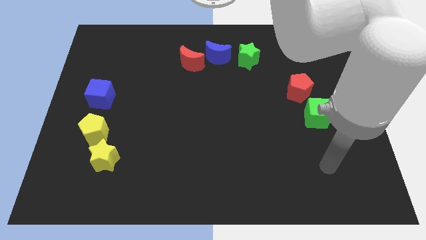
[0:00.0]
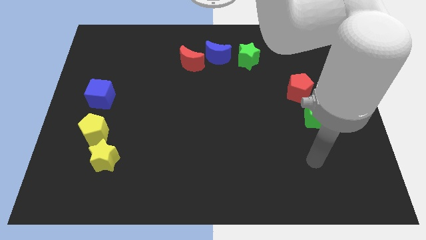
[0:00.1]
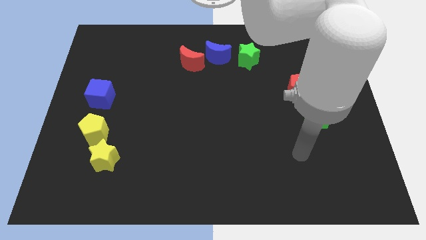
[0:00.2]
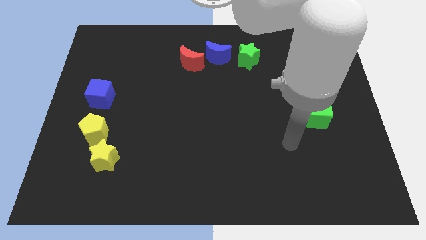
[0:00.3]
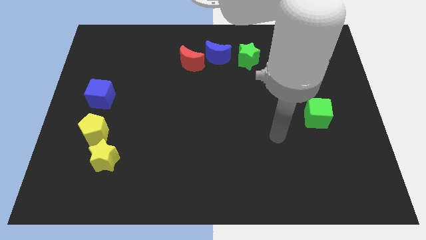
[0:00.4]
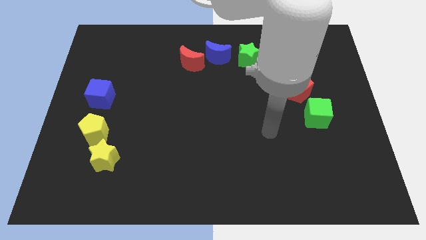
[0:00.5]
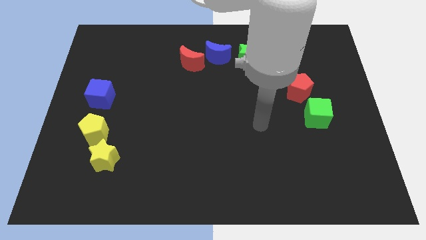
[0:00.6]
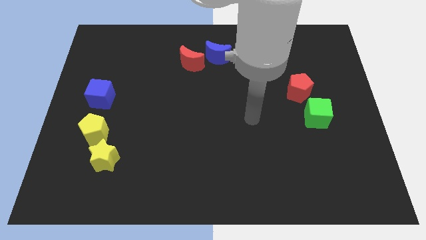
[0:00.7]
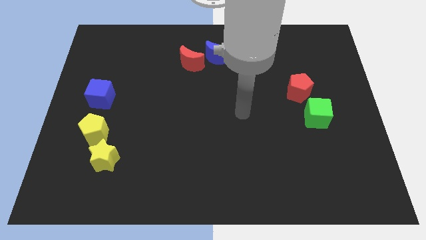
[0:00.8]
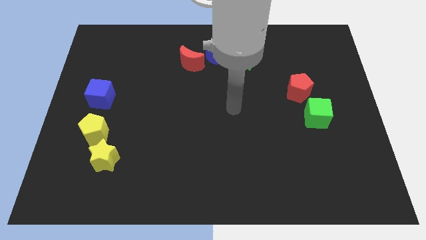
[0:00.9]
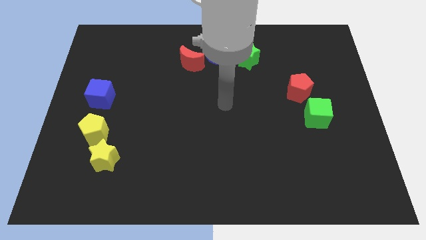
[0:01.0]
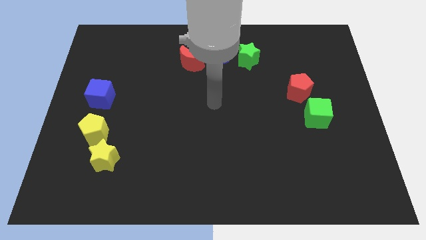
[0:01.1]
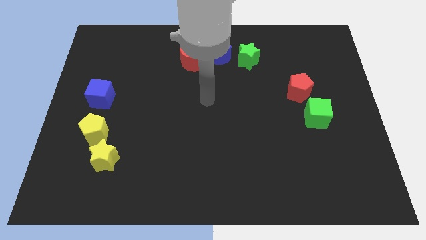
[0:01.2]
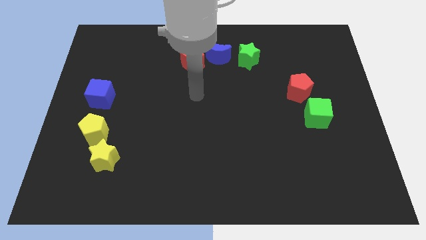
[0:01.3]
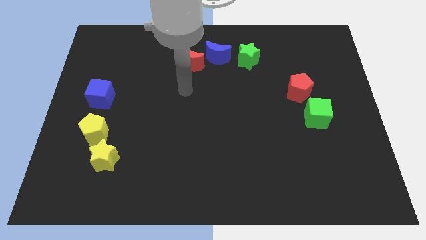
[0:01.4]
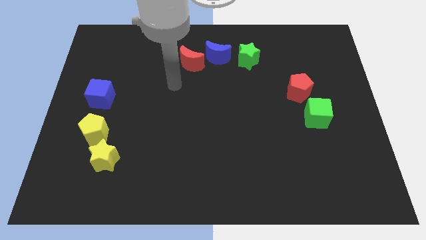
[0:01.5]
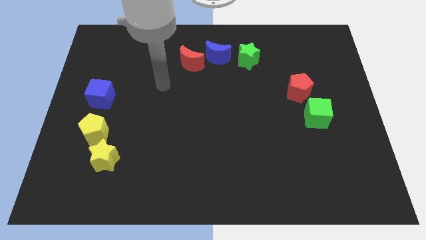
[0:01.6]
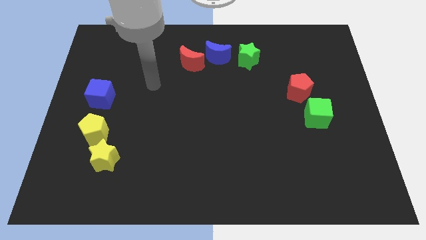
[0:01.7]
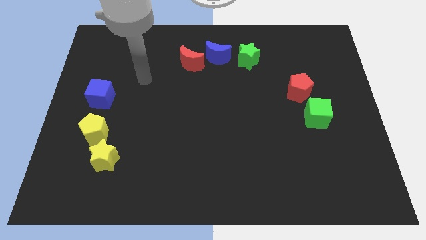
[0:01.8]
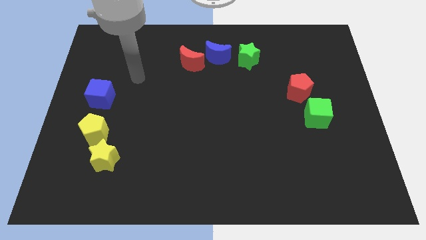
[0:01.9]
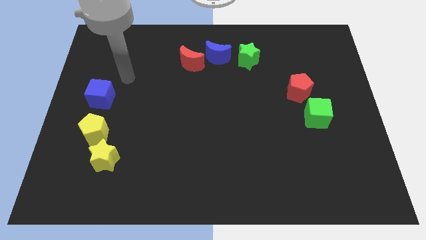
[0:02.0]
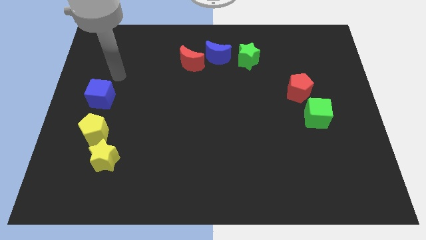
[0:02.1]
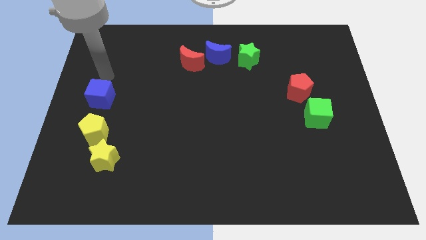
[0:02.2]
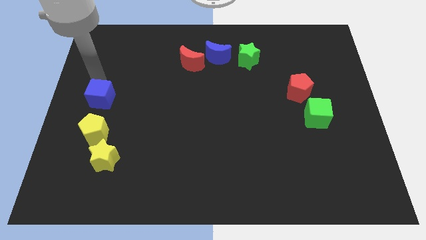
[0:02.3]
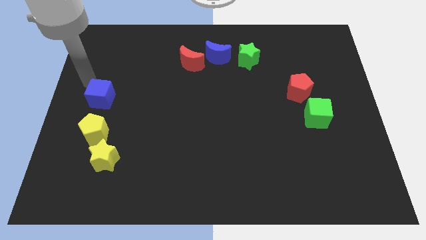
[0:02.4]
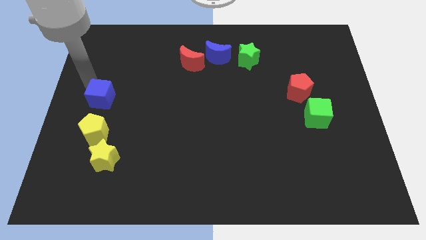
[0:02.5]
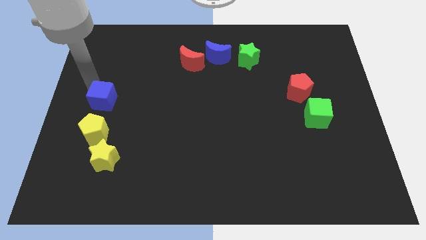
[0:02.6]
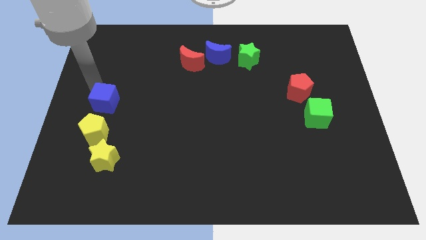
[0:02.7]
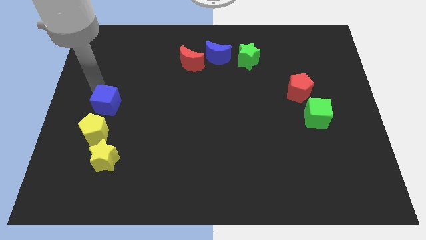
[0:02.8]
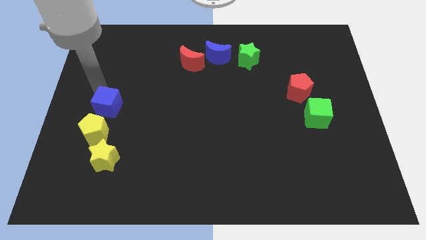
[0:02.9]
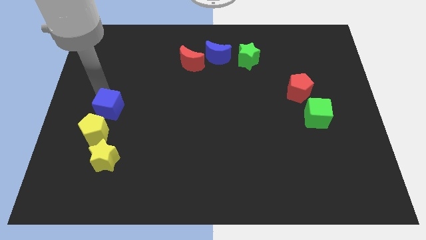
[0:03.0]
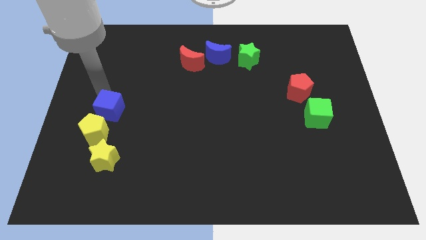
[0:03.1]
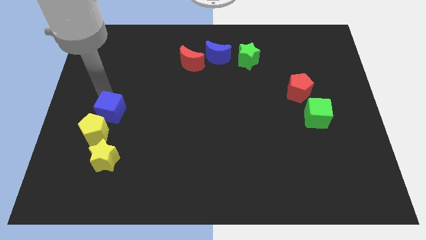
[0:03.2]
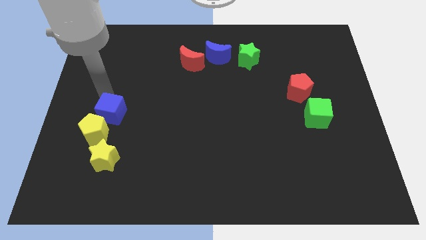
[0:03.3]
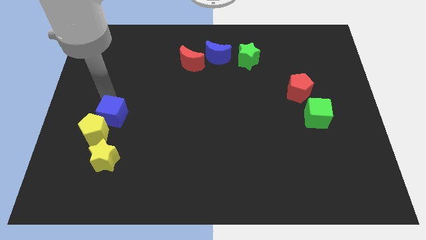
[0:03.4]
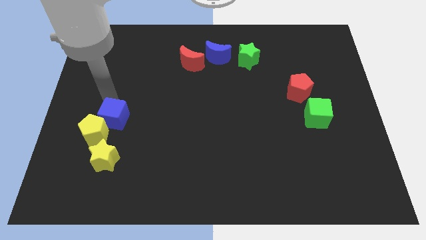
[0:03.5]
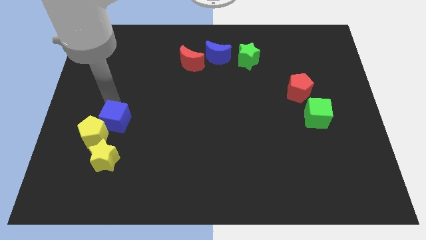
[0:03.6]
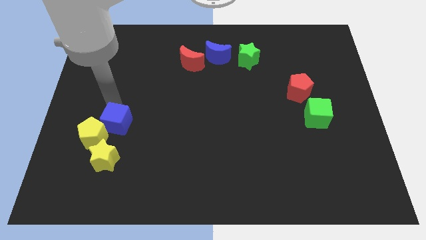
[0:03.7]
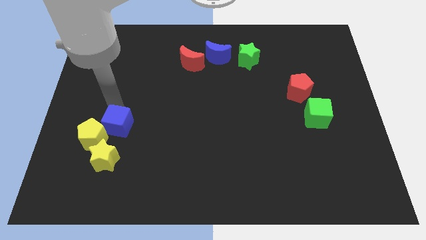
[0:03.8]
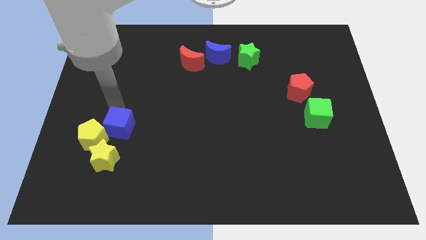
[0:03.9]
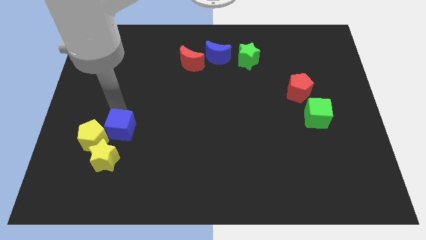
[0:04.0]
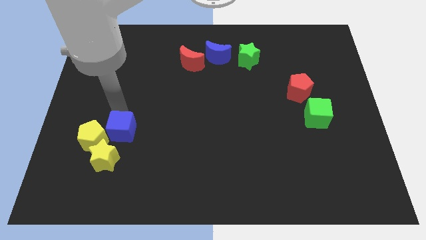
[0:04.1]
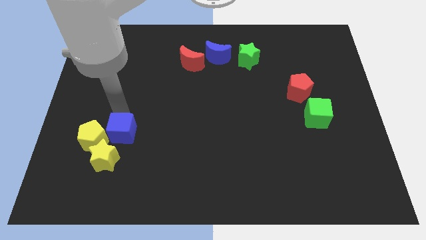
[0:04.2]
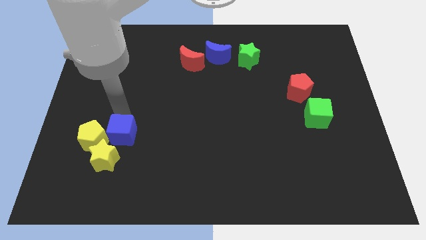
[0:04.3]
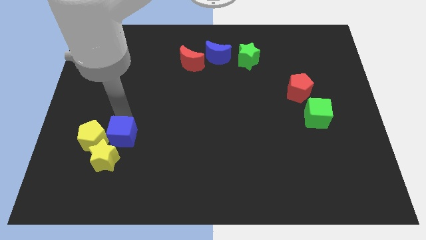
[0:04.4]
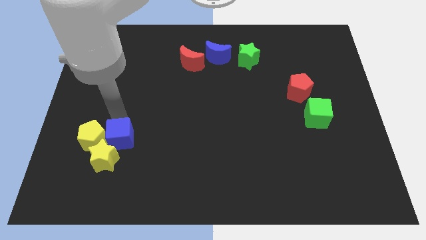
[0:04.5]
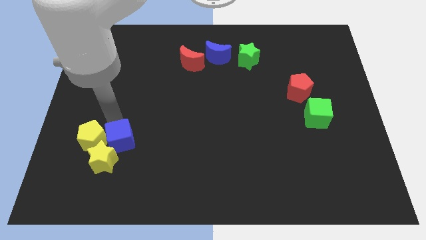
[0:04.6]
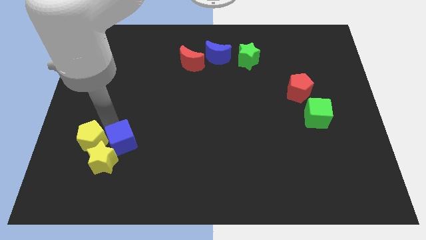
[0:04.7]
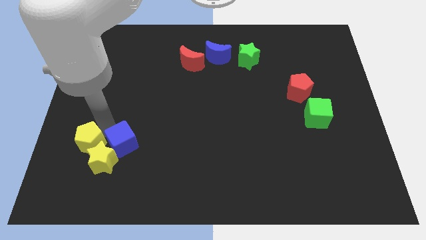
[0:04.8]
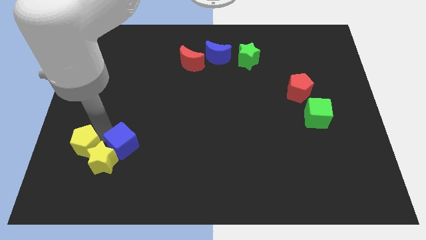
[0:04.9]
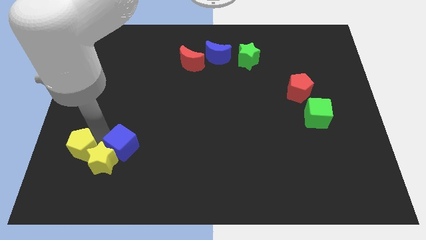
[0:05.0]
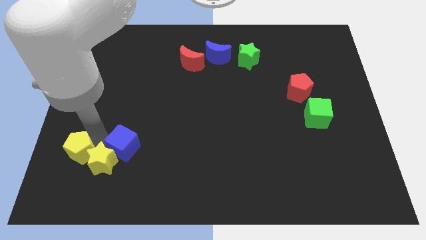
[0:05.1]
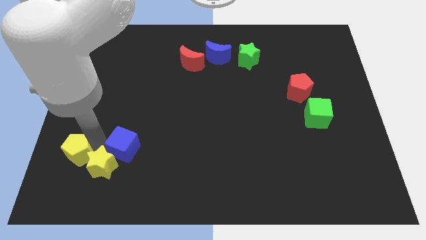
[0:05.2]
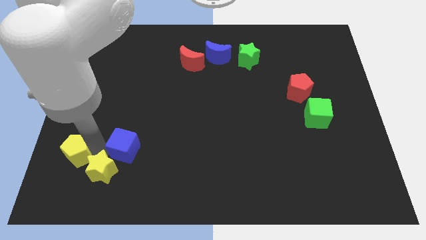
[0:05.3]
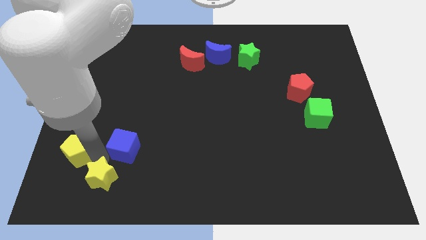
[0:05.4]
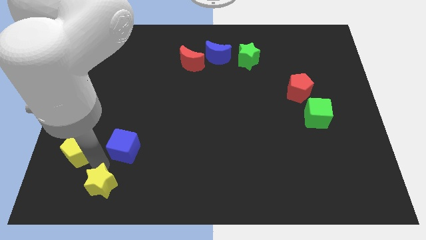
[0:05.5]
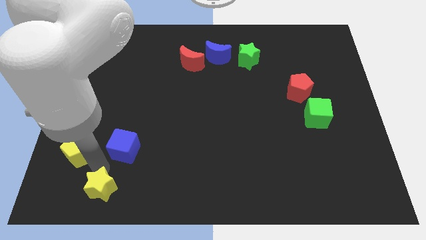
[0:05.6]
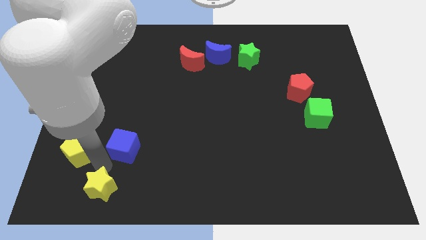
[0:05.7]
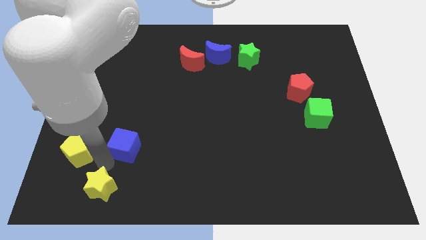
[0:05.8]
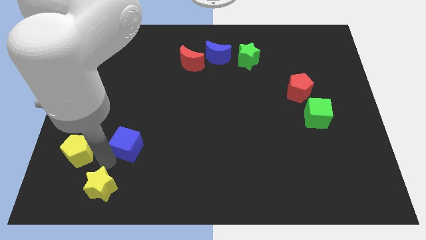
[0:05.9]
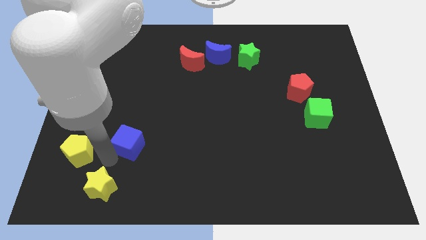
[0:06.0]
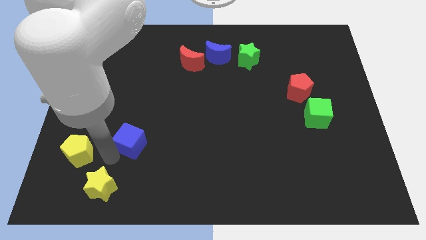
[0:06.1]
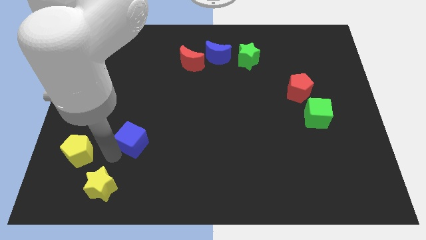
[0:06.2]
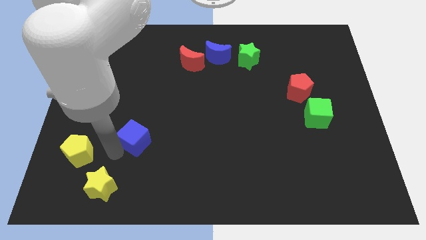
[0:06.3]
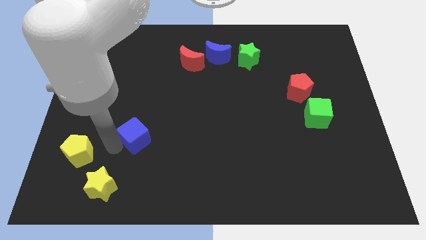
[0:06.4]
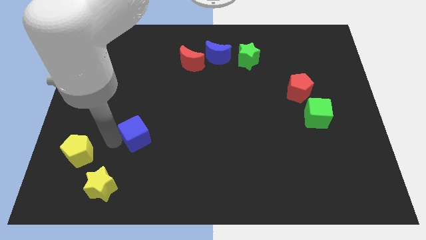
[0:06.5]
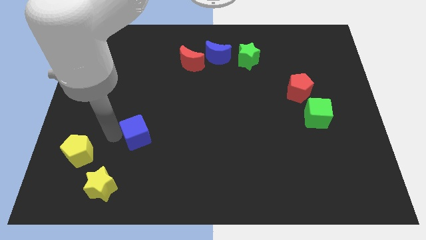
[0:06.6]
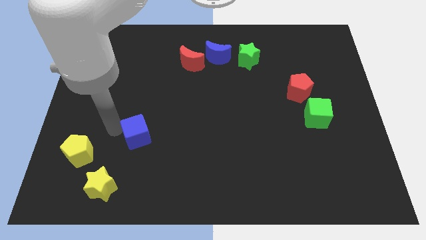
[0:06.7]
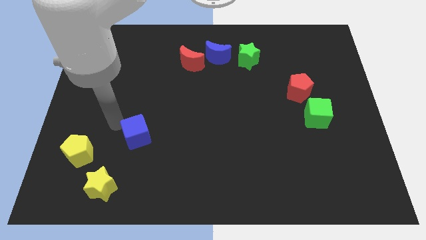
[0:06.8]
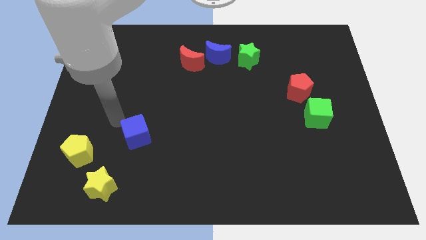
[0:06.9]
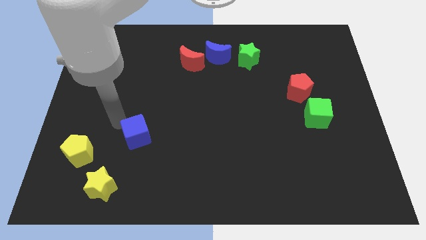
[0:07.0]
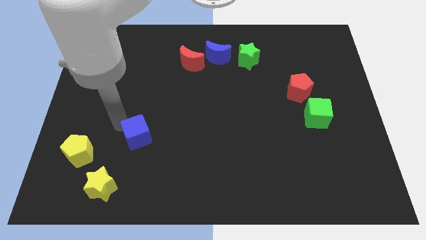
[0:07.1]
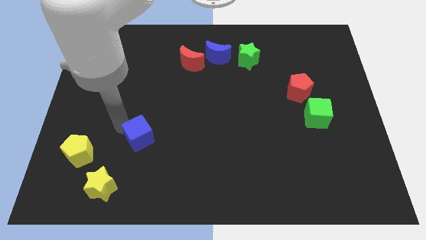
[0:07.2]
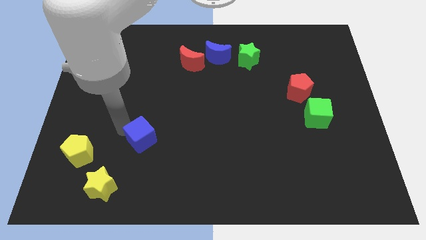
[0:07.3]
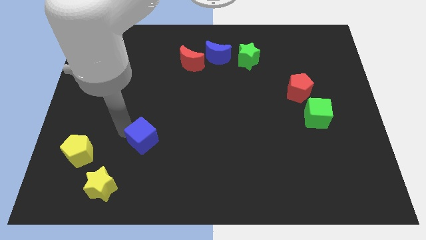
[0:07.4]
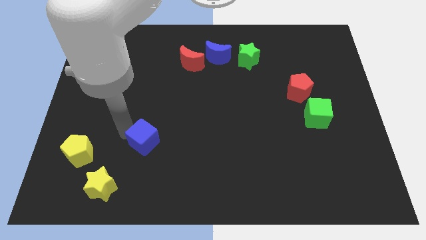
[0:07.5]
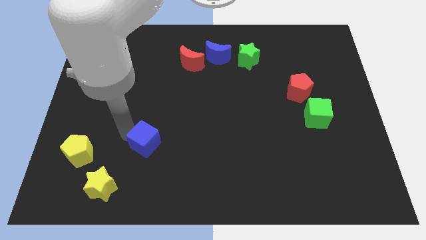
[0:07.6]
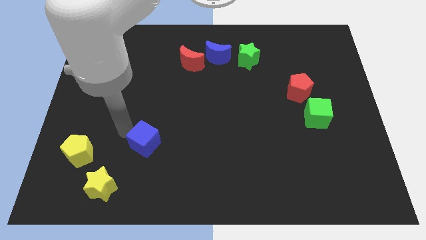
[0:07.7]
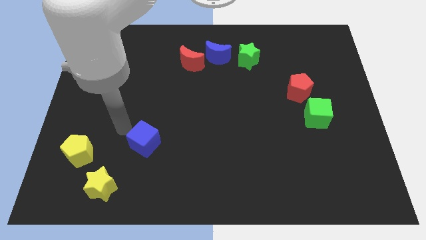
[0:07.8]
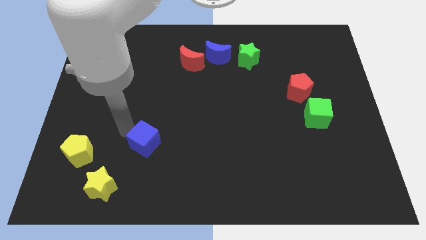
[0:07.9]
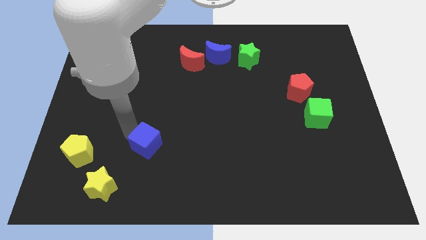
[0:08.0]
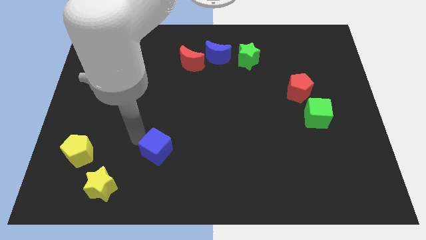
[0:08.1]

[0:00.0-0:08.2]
move the blue cube down and to the right diagonally
